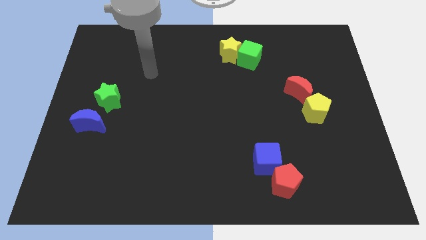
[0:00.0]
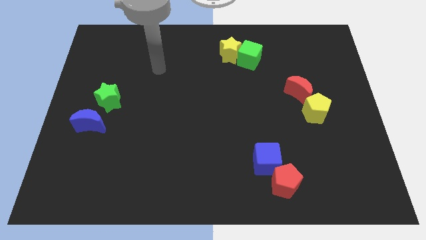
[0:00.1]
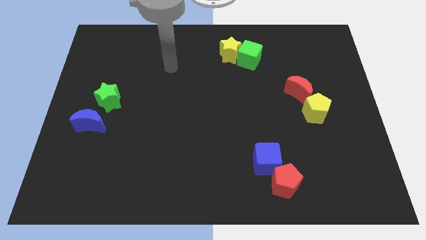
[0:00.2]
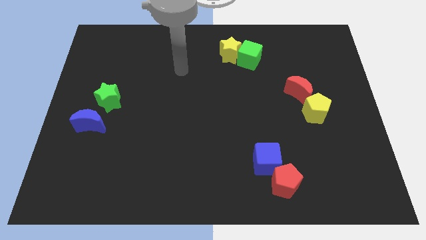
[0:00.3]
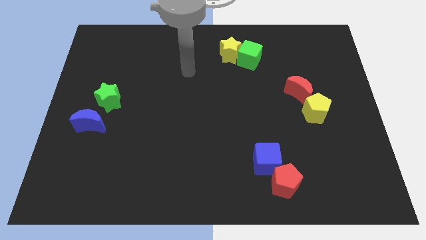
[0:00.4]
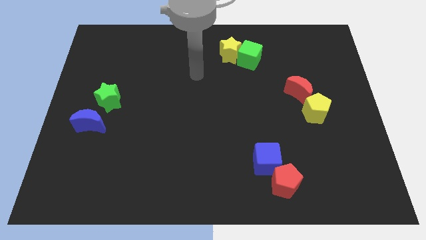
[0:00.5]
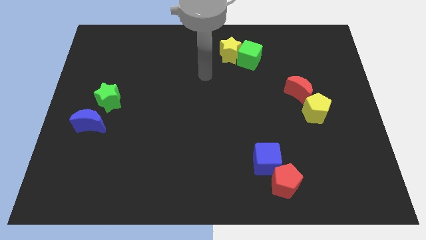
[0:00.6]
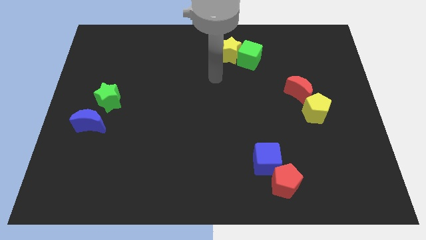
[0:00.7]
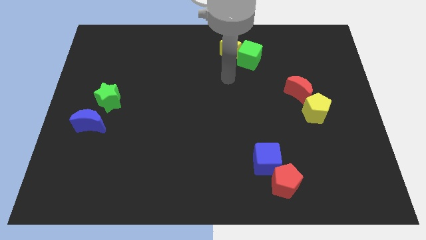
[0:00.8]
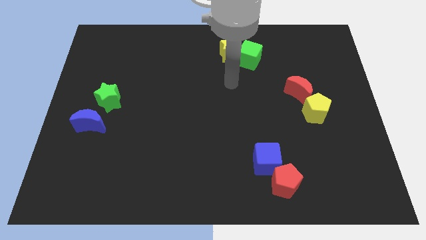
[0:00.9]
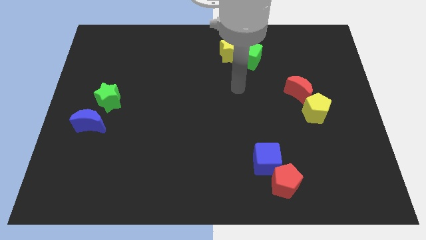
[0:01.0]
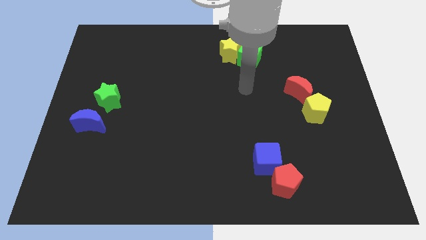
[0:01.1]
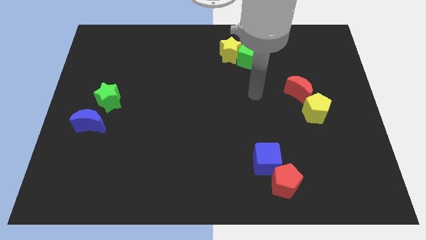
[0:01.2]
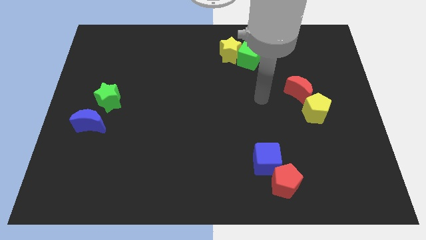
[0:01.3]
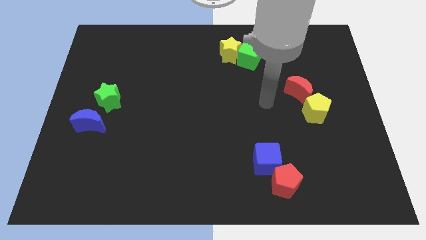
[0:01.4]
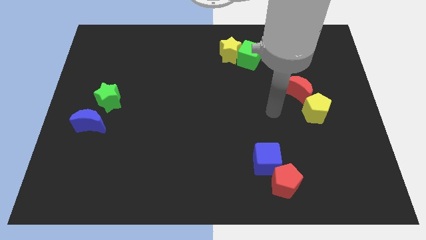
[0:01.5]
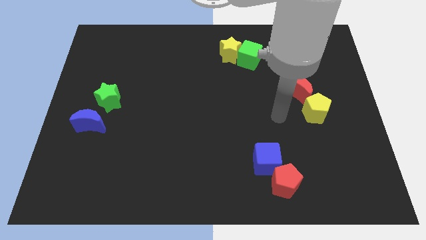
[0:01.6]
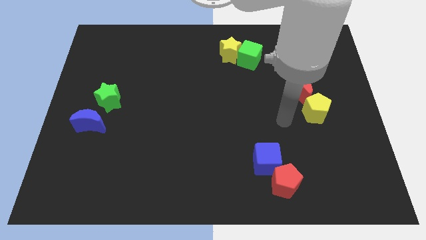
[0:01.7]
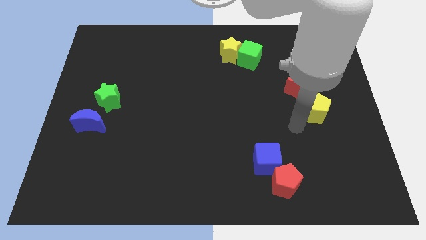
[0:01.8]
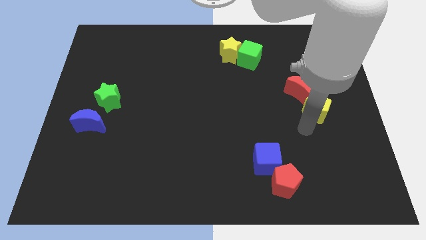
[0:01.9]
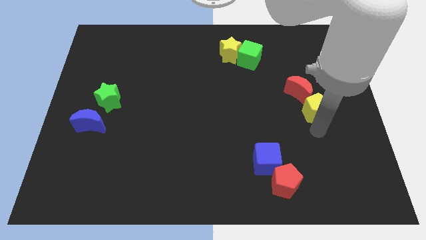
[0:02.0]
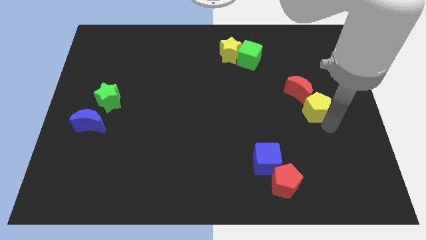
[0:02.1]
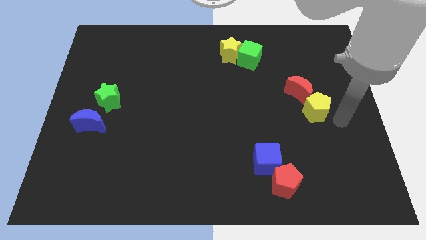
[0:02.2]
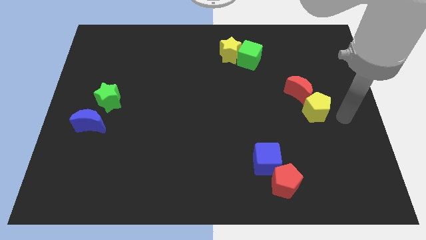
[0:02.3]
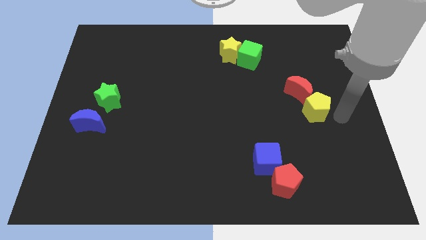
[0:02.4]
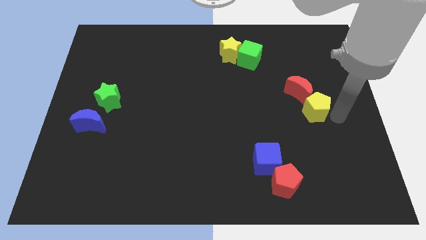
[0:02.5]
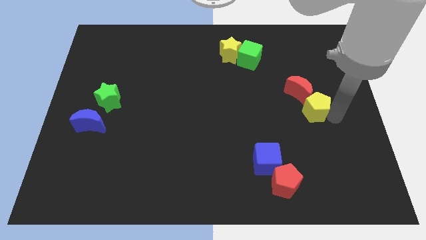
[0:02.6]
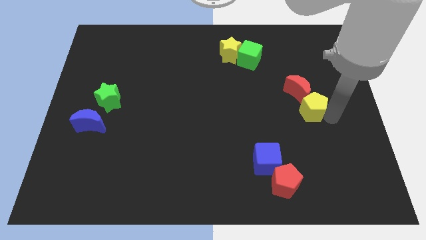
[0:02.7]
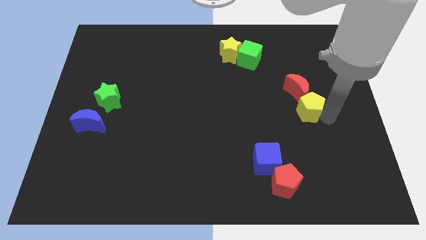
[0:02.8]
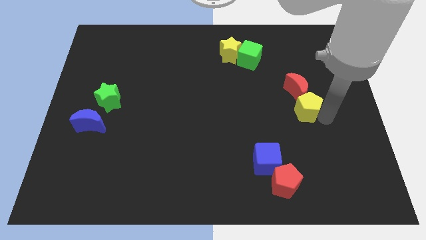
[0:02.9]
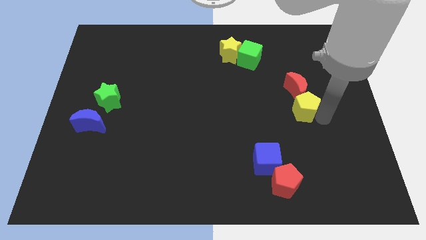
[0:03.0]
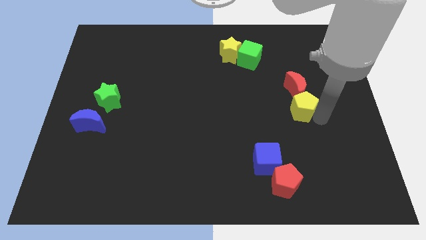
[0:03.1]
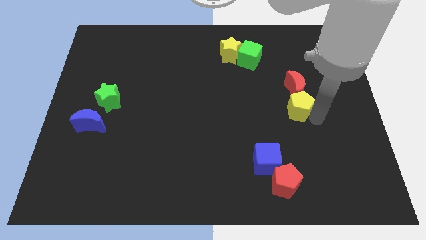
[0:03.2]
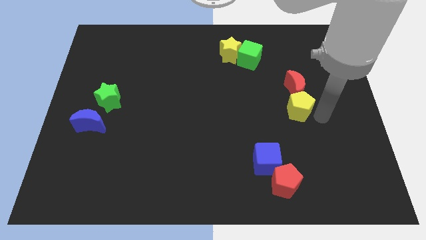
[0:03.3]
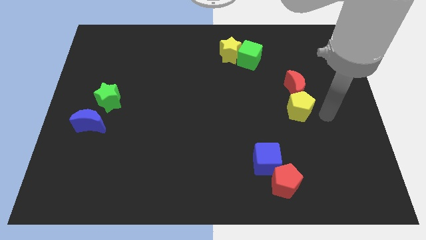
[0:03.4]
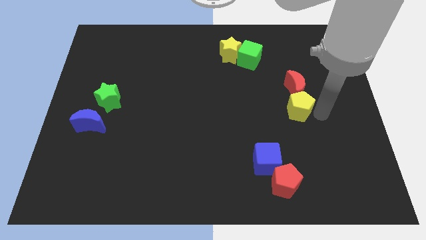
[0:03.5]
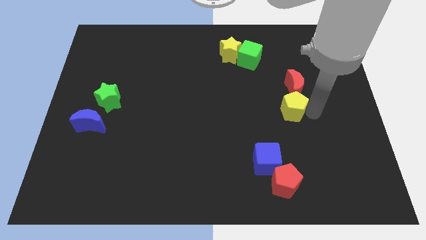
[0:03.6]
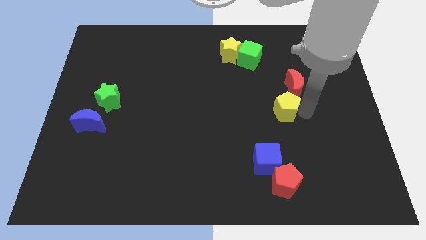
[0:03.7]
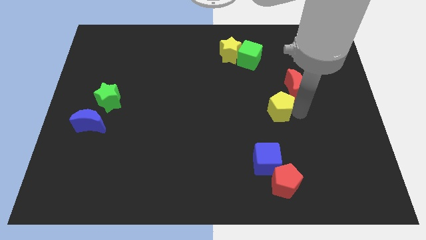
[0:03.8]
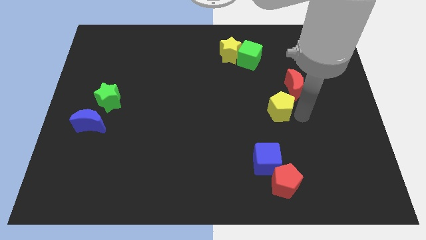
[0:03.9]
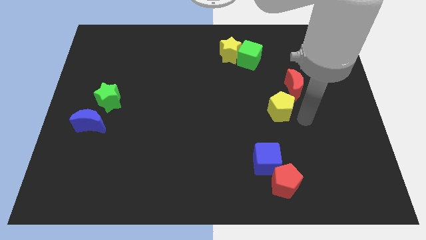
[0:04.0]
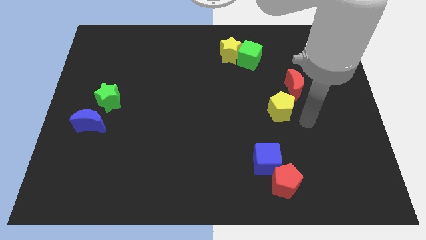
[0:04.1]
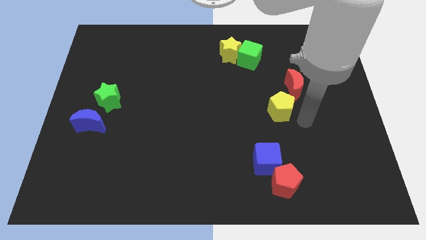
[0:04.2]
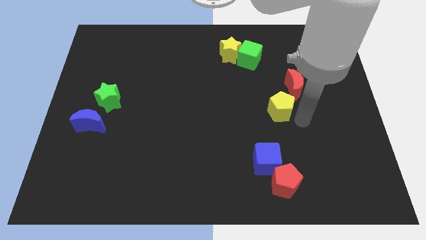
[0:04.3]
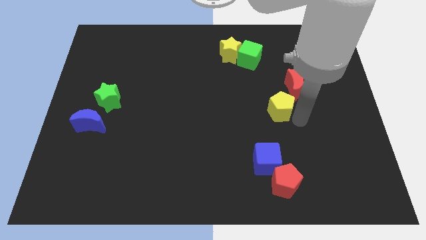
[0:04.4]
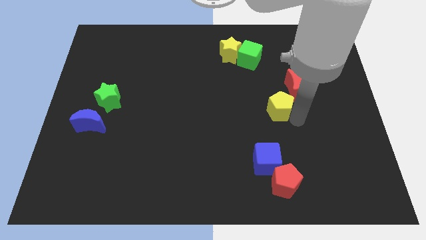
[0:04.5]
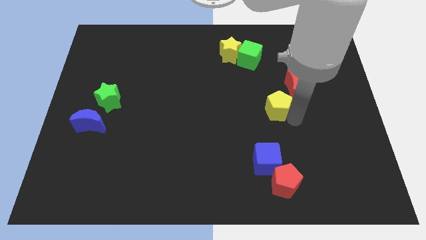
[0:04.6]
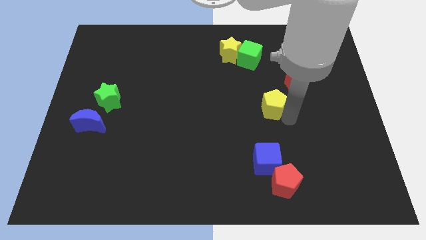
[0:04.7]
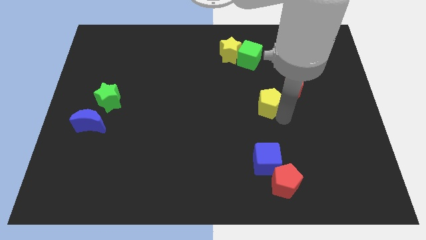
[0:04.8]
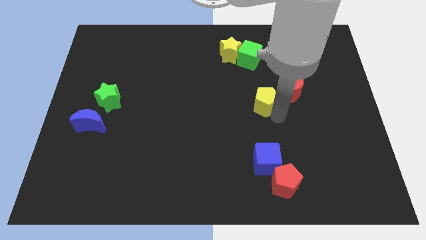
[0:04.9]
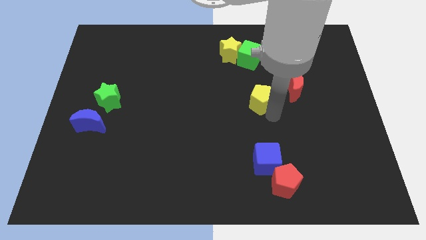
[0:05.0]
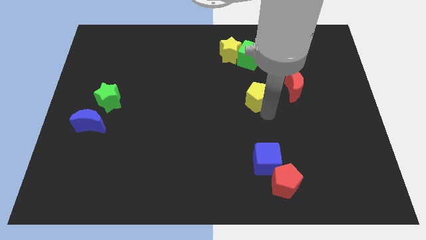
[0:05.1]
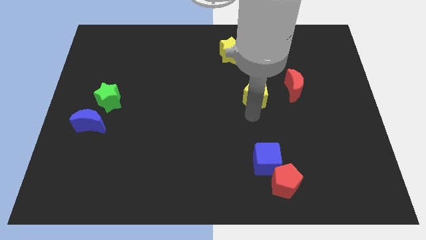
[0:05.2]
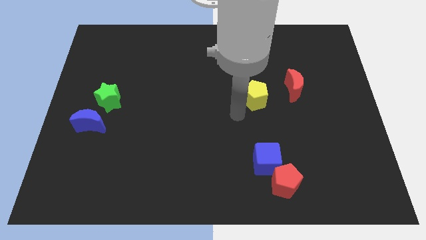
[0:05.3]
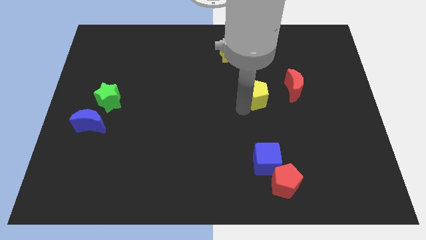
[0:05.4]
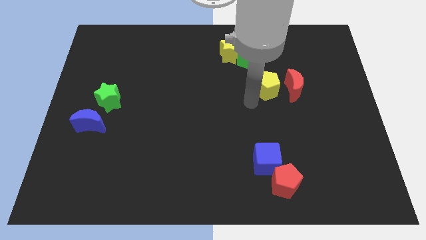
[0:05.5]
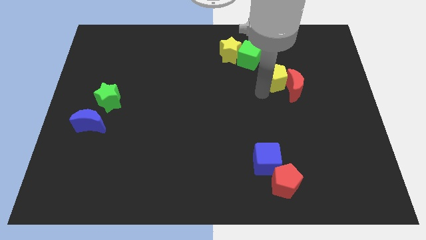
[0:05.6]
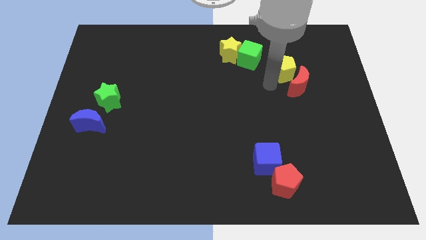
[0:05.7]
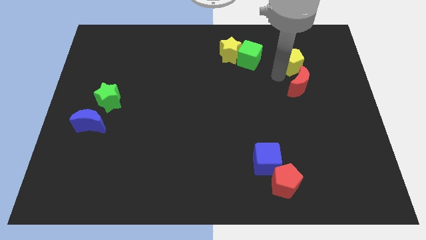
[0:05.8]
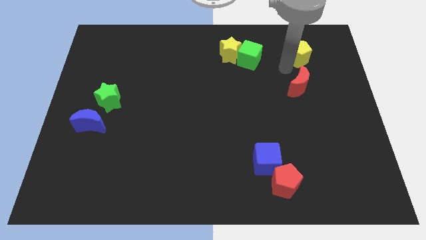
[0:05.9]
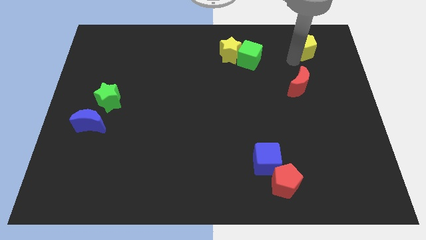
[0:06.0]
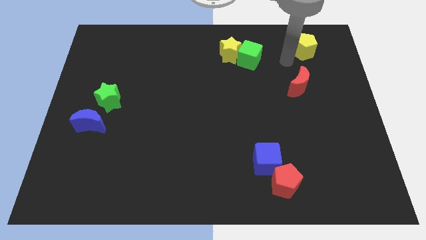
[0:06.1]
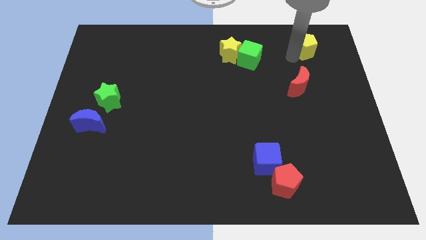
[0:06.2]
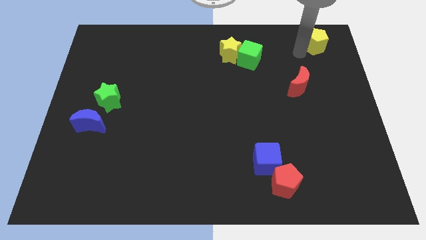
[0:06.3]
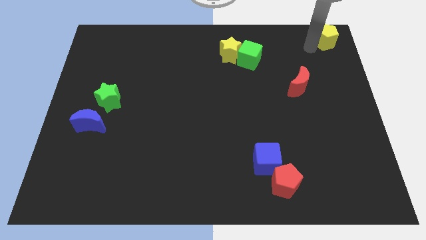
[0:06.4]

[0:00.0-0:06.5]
push the yellow pentagon to the top right corner
